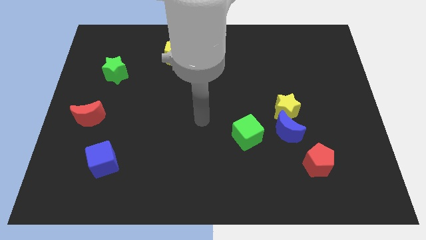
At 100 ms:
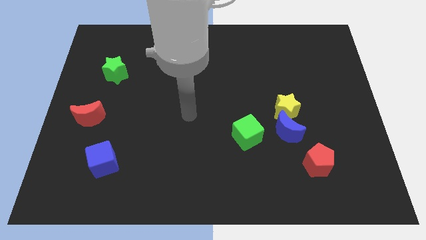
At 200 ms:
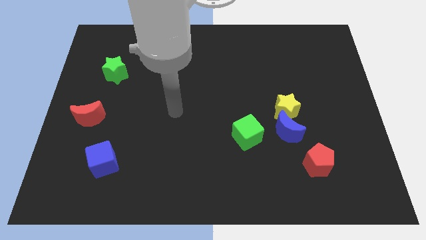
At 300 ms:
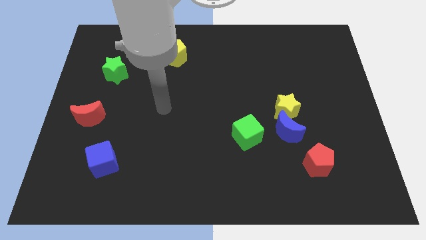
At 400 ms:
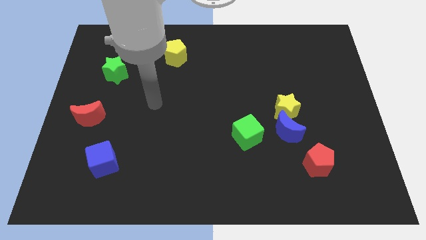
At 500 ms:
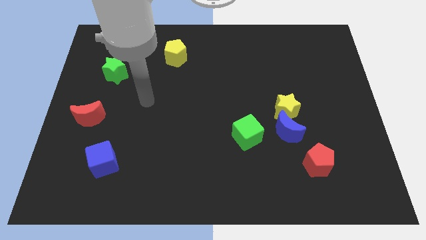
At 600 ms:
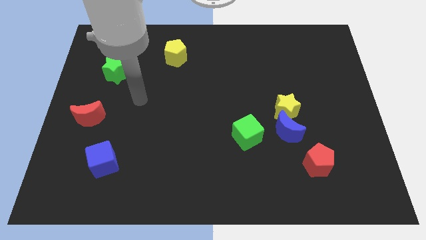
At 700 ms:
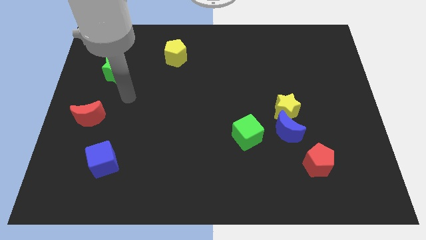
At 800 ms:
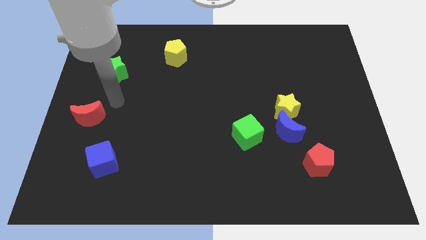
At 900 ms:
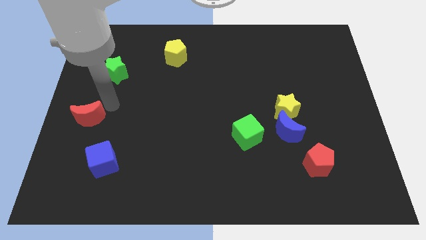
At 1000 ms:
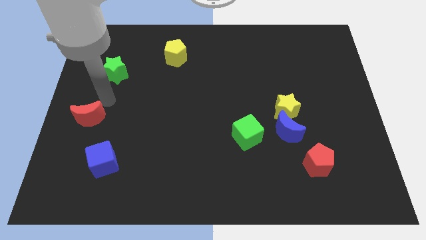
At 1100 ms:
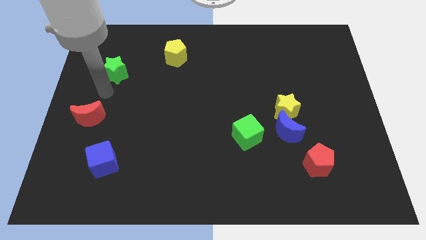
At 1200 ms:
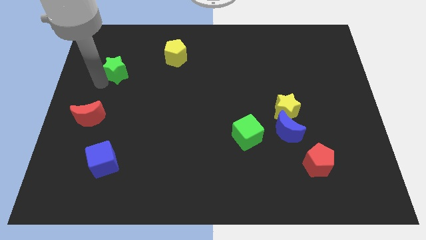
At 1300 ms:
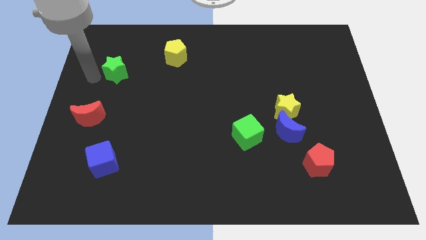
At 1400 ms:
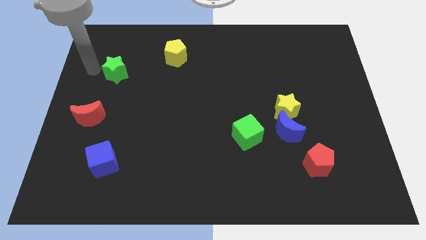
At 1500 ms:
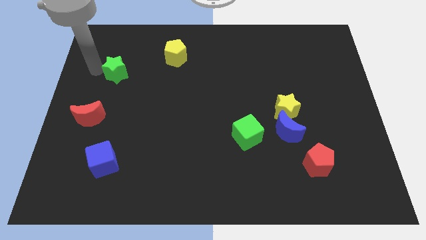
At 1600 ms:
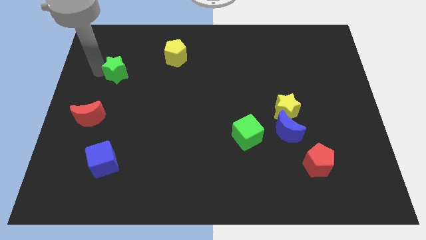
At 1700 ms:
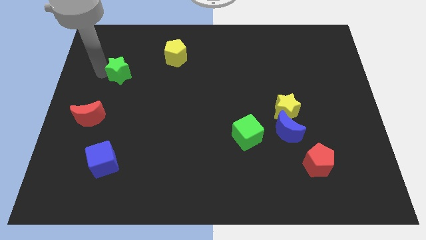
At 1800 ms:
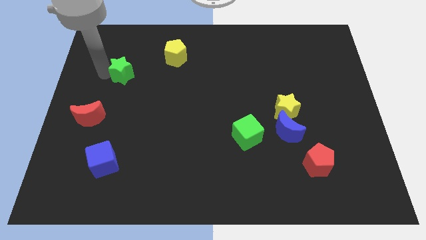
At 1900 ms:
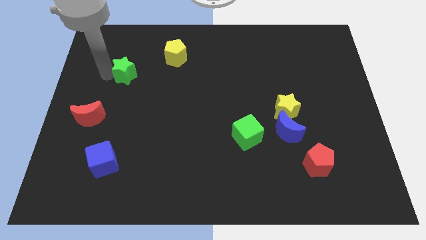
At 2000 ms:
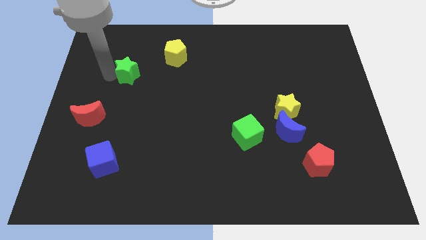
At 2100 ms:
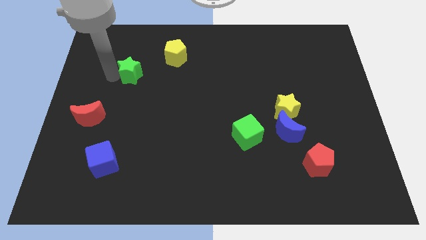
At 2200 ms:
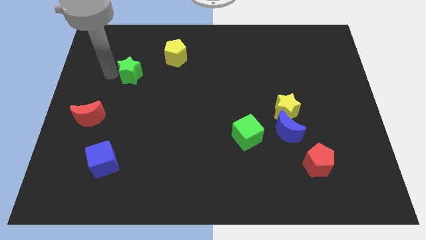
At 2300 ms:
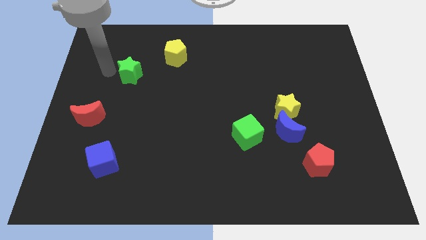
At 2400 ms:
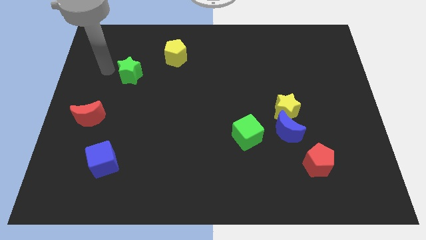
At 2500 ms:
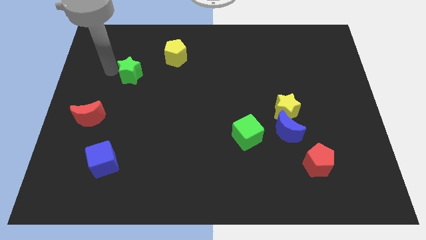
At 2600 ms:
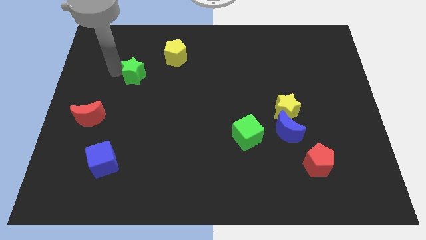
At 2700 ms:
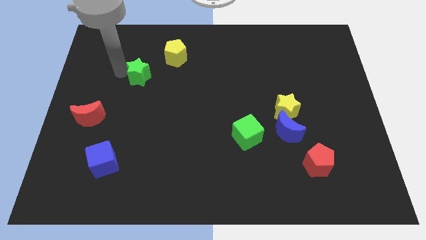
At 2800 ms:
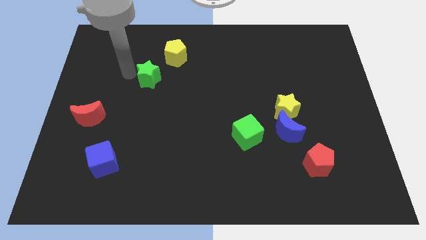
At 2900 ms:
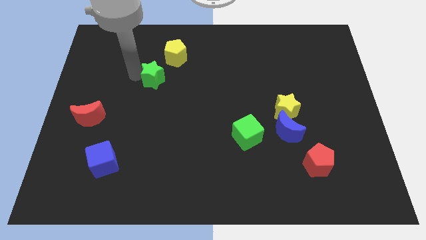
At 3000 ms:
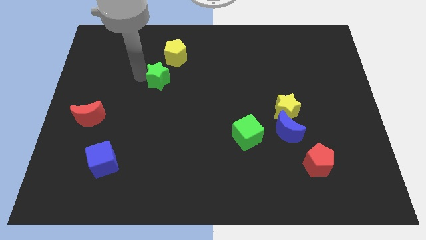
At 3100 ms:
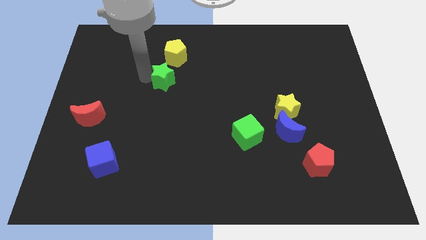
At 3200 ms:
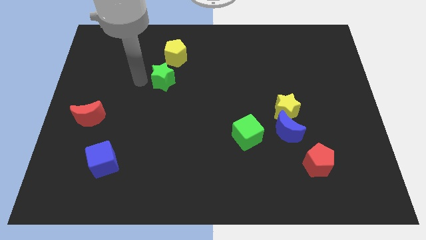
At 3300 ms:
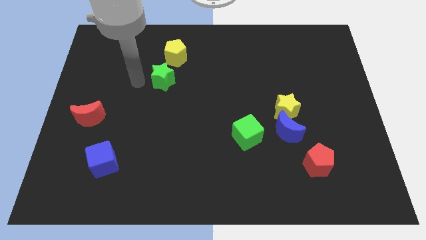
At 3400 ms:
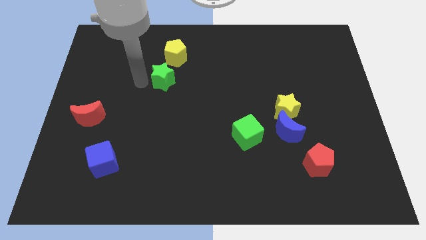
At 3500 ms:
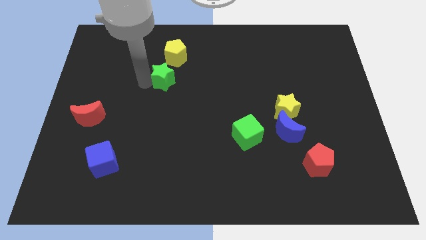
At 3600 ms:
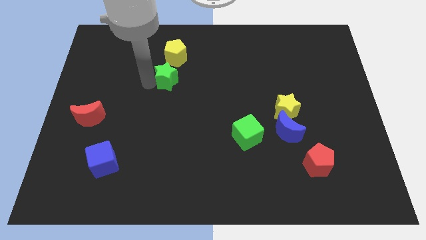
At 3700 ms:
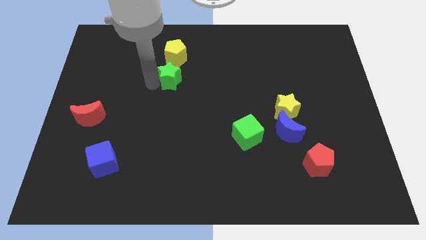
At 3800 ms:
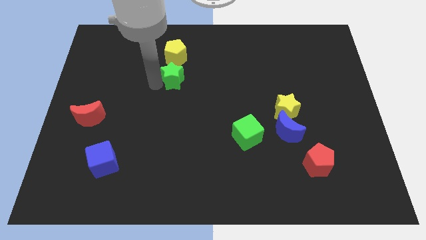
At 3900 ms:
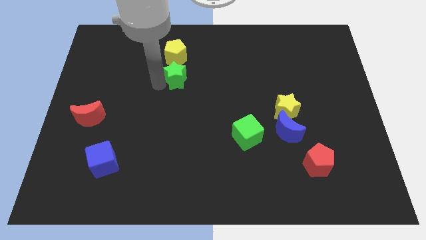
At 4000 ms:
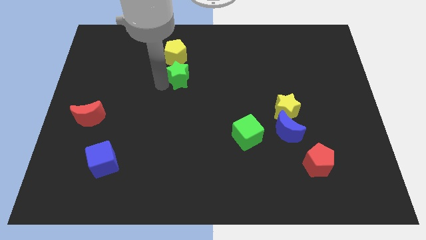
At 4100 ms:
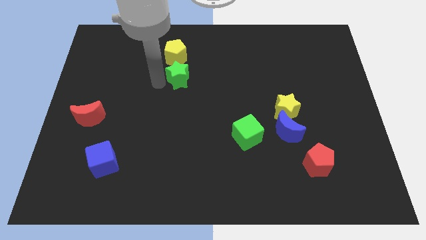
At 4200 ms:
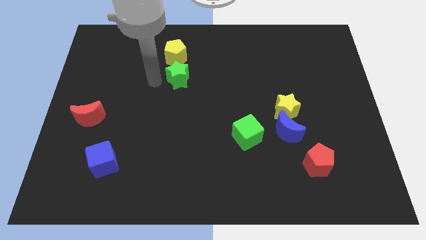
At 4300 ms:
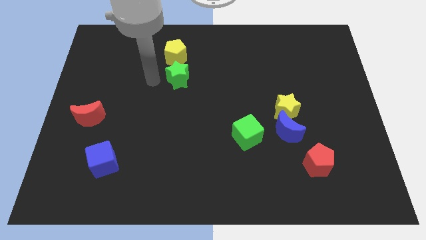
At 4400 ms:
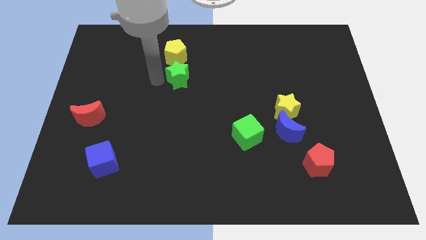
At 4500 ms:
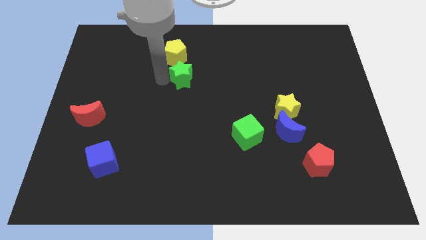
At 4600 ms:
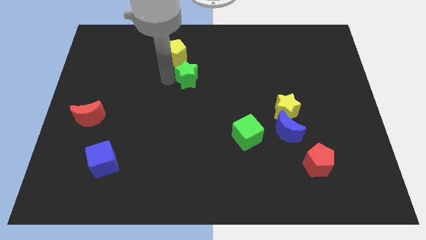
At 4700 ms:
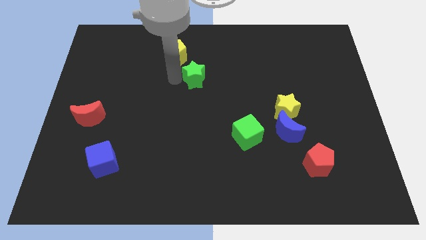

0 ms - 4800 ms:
move the green star to the right

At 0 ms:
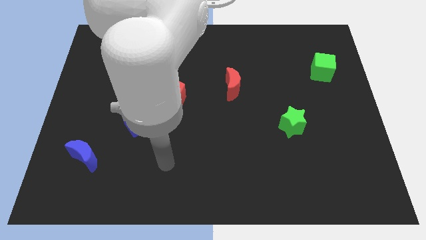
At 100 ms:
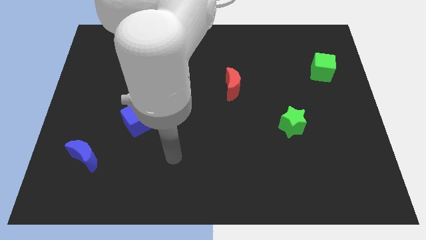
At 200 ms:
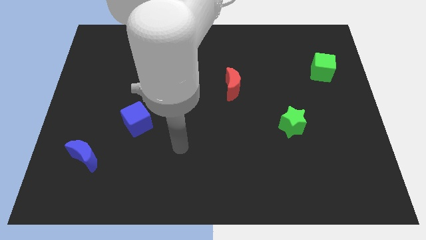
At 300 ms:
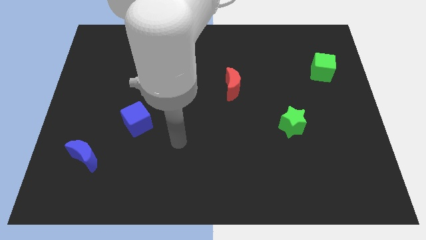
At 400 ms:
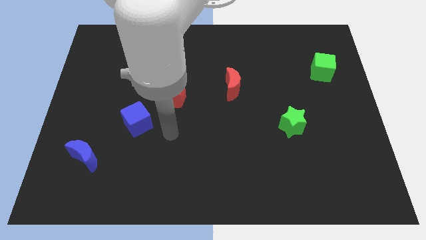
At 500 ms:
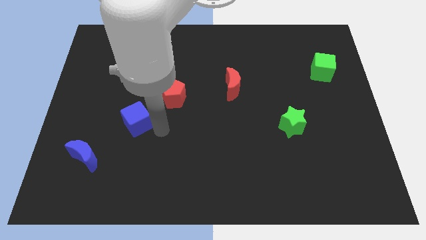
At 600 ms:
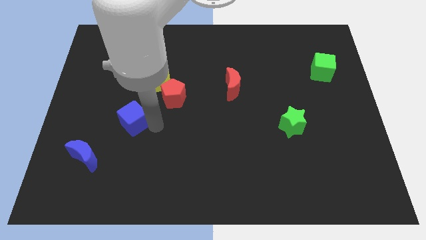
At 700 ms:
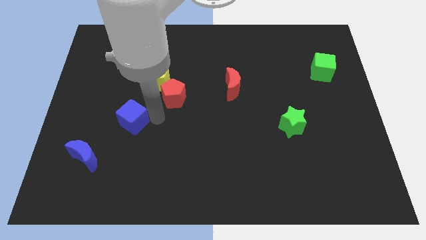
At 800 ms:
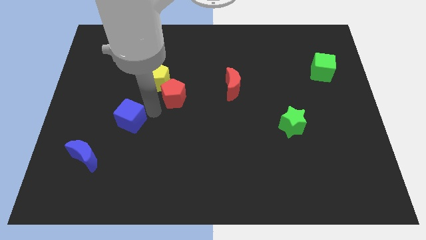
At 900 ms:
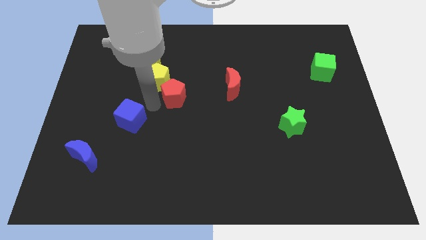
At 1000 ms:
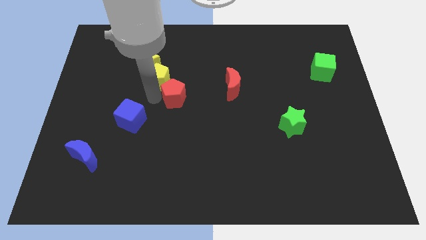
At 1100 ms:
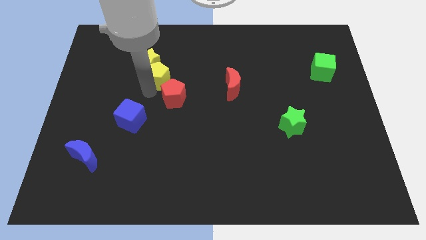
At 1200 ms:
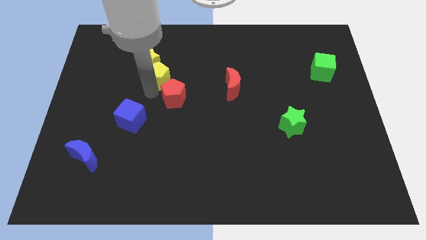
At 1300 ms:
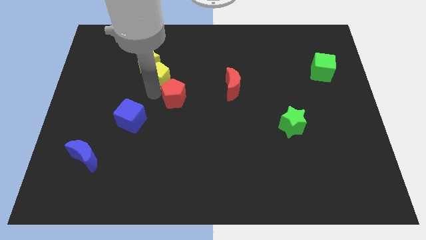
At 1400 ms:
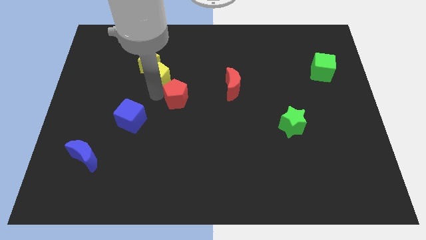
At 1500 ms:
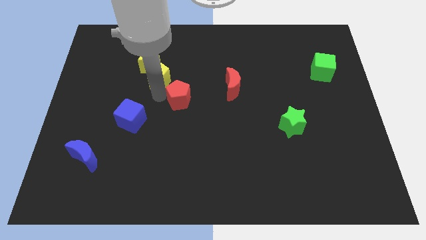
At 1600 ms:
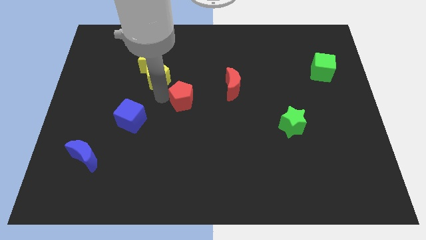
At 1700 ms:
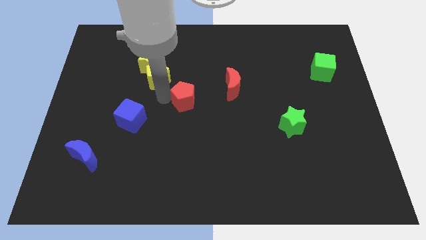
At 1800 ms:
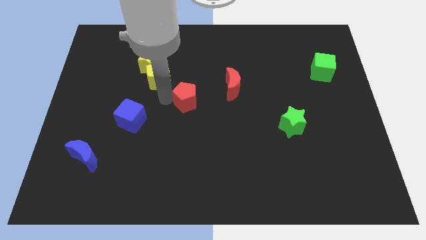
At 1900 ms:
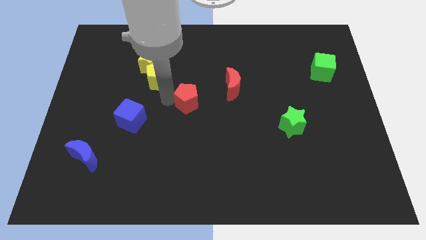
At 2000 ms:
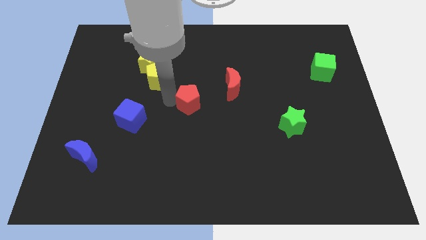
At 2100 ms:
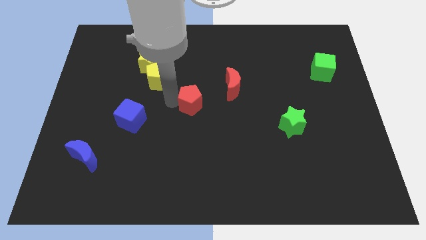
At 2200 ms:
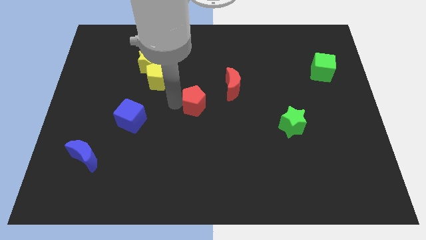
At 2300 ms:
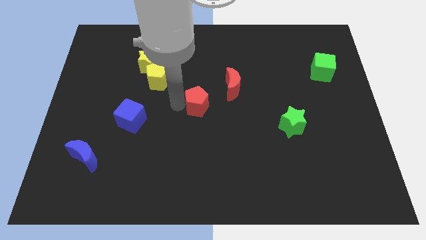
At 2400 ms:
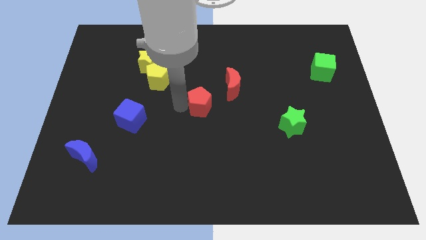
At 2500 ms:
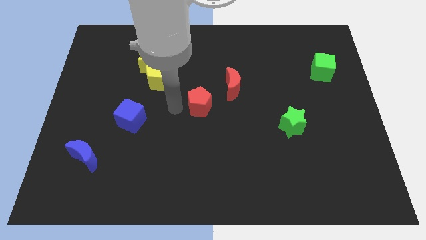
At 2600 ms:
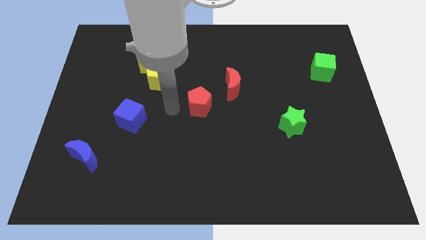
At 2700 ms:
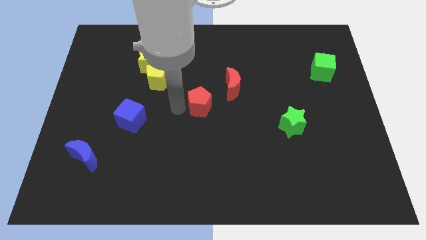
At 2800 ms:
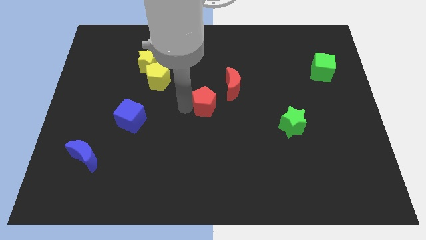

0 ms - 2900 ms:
slide the red pentagon a little right

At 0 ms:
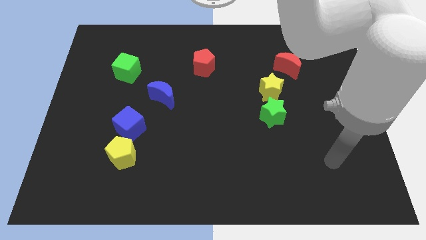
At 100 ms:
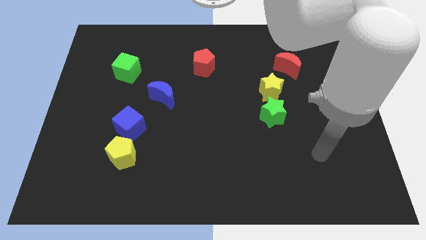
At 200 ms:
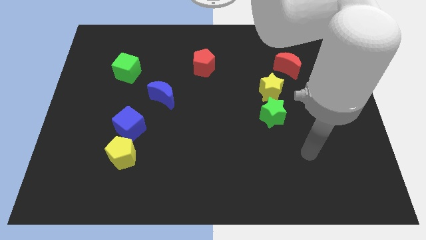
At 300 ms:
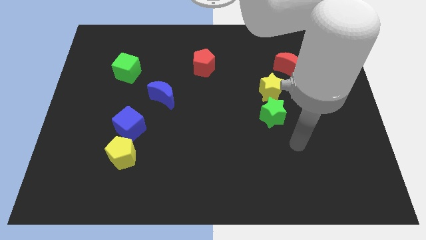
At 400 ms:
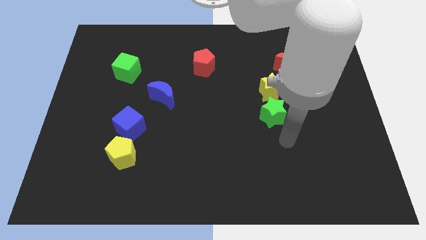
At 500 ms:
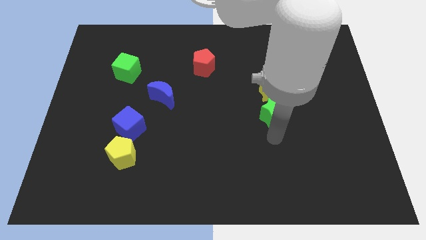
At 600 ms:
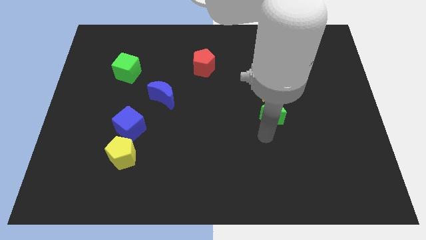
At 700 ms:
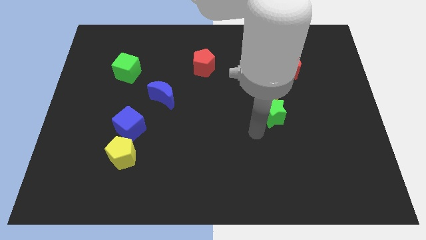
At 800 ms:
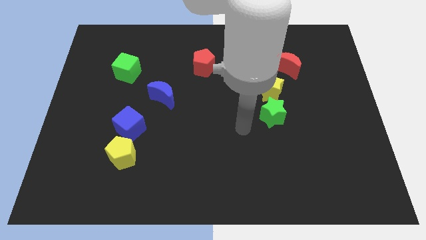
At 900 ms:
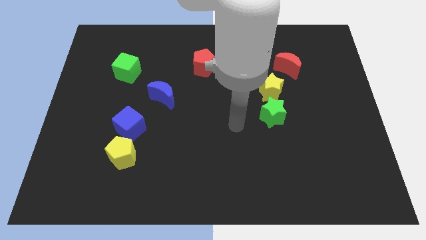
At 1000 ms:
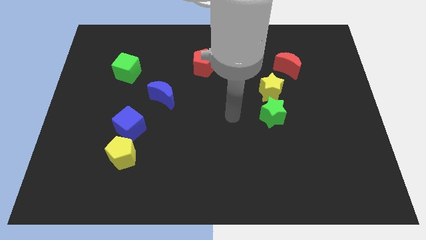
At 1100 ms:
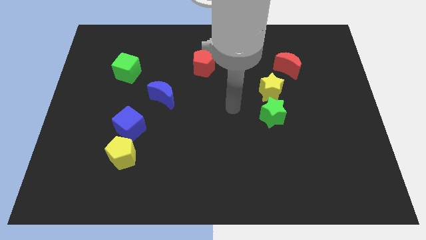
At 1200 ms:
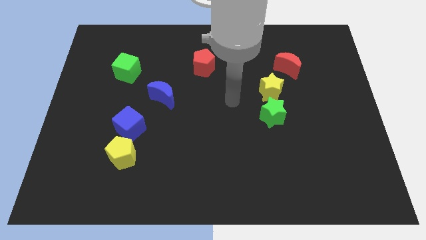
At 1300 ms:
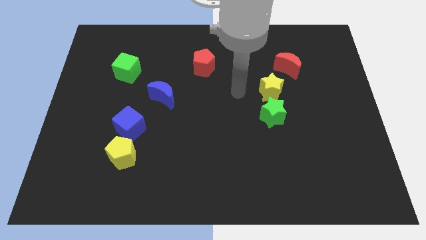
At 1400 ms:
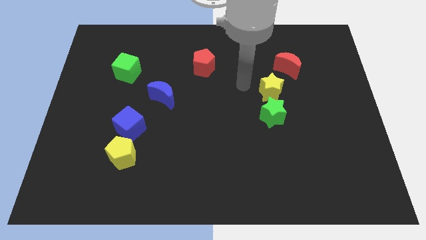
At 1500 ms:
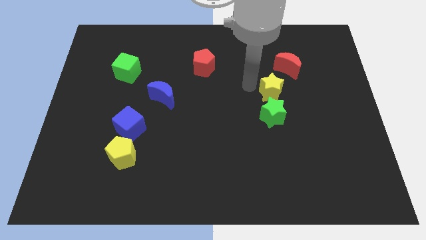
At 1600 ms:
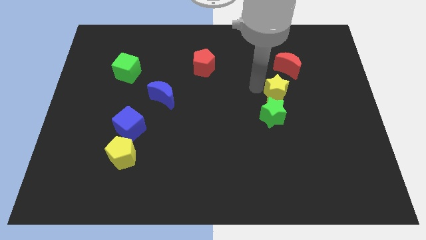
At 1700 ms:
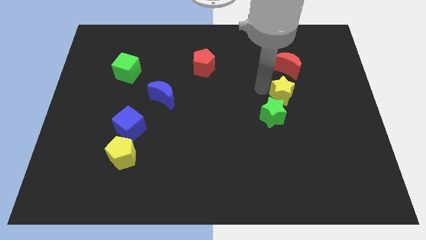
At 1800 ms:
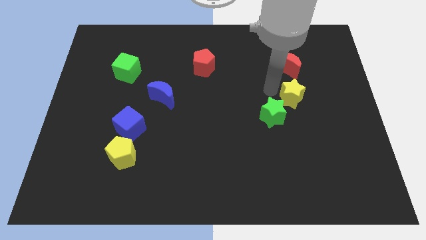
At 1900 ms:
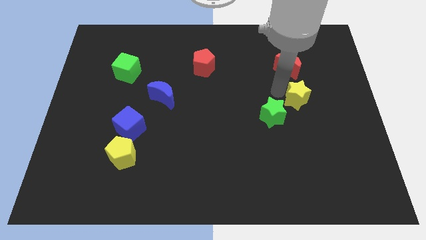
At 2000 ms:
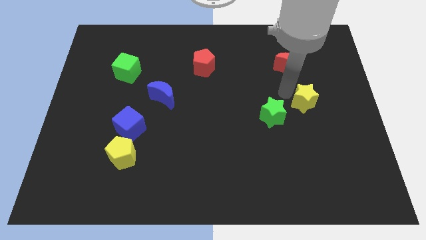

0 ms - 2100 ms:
slightly move the yellow star diagonally down and to the right
